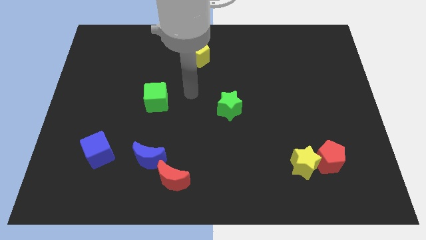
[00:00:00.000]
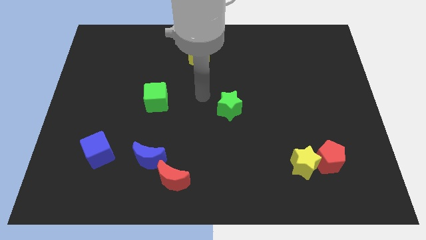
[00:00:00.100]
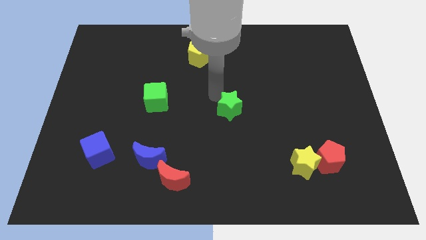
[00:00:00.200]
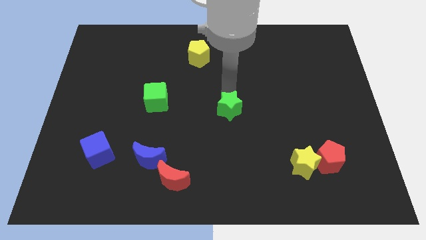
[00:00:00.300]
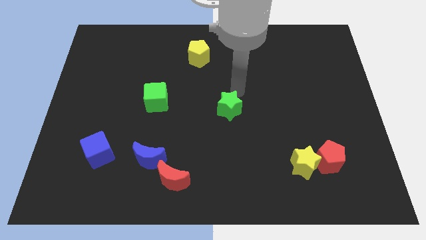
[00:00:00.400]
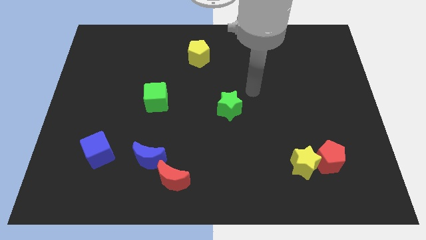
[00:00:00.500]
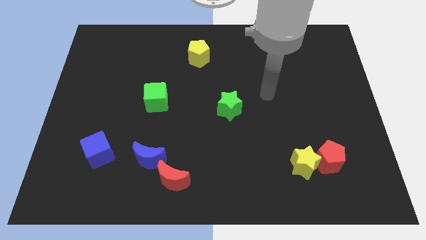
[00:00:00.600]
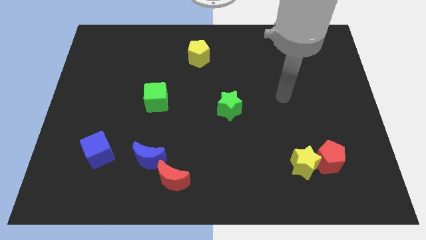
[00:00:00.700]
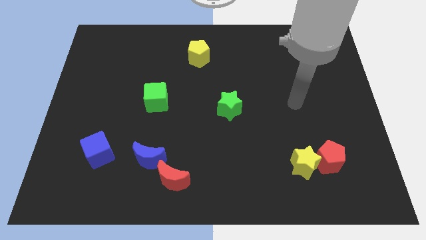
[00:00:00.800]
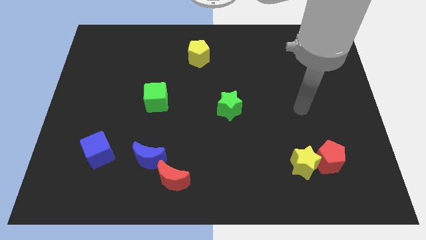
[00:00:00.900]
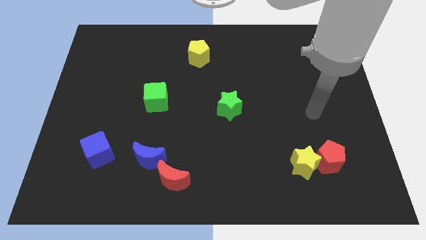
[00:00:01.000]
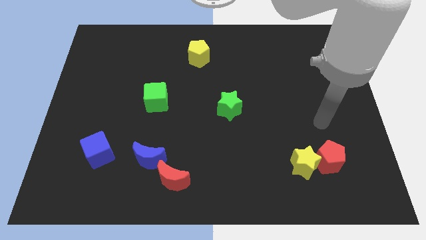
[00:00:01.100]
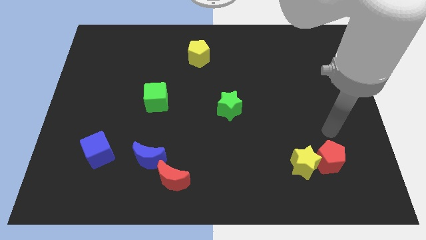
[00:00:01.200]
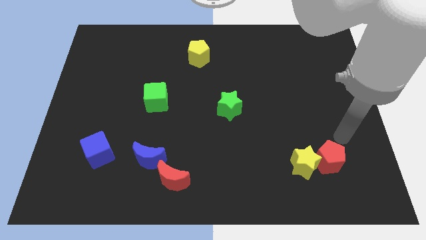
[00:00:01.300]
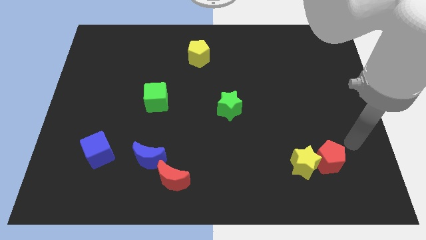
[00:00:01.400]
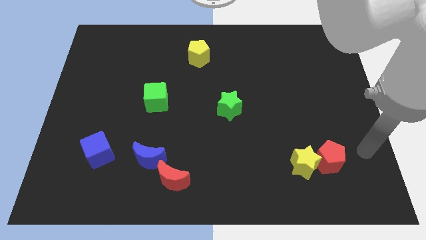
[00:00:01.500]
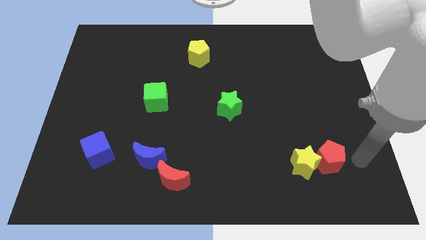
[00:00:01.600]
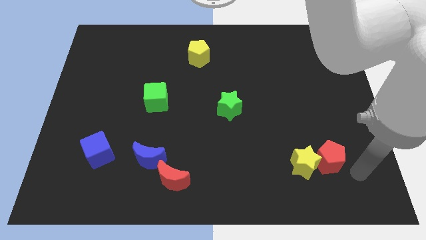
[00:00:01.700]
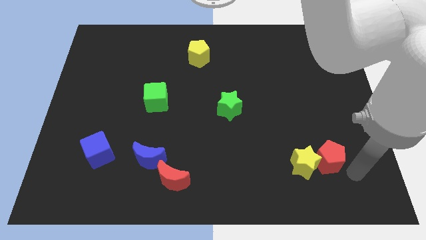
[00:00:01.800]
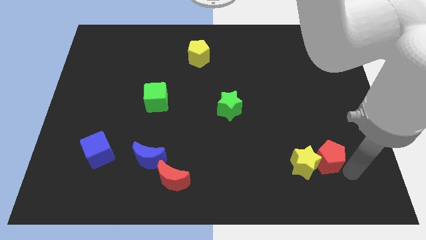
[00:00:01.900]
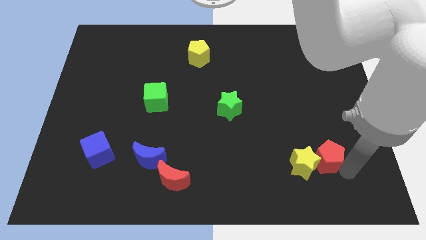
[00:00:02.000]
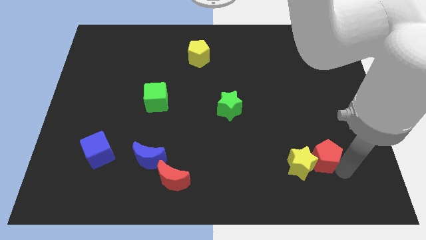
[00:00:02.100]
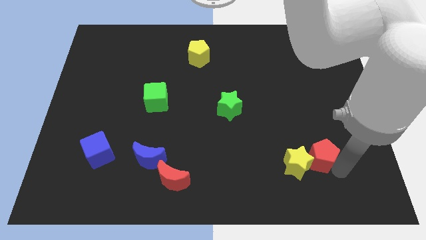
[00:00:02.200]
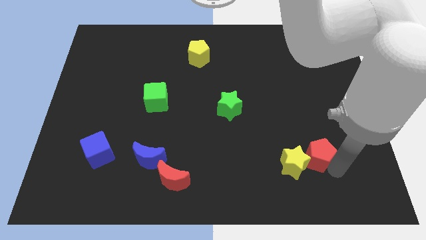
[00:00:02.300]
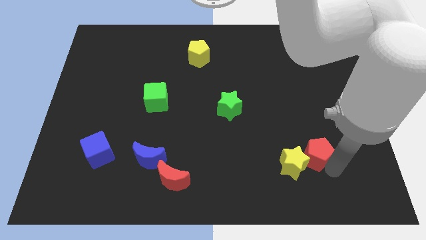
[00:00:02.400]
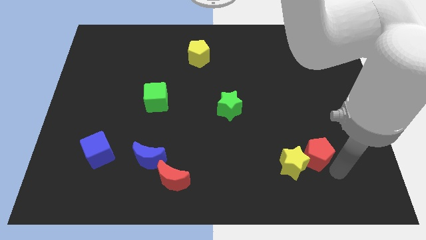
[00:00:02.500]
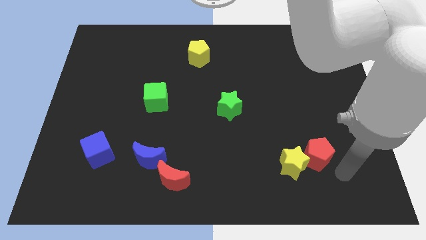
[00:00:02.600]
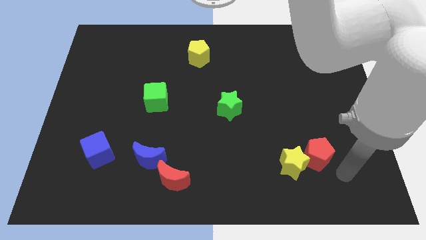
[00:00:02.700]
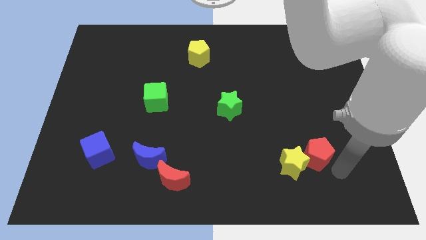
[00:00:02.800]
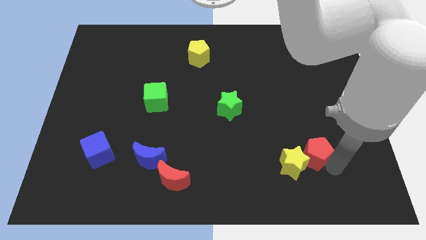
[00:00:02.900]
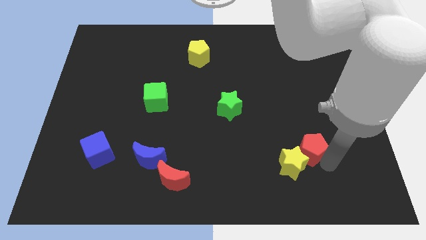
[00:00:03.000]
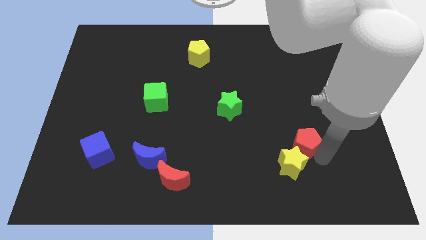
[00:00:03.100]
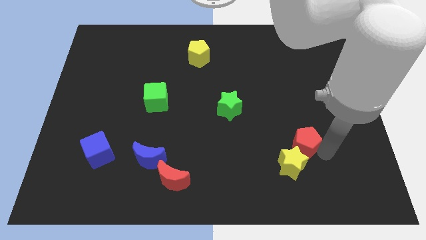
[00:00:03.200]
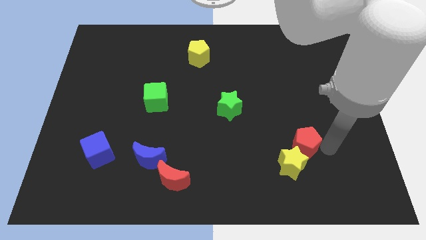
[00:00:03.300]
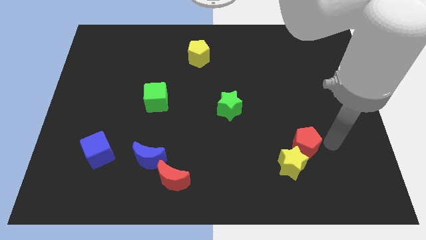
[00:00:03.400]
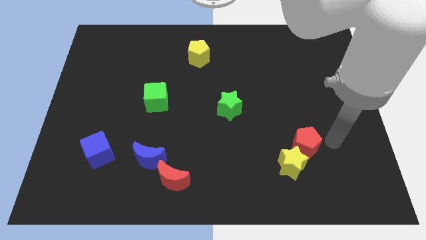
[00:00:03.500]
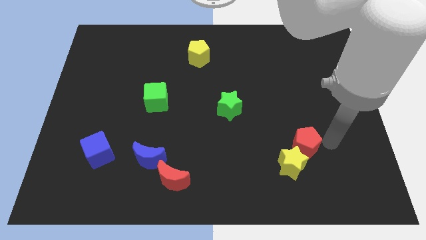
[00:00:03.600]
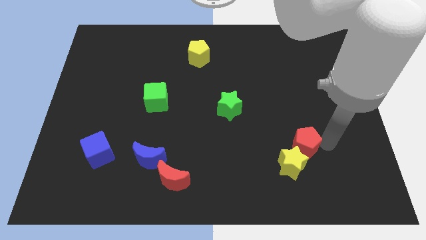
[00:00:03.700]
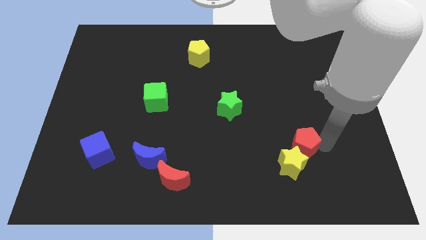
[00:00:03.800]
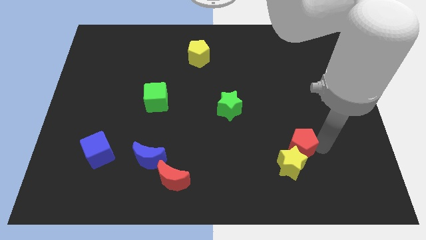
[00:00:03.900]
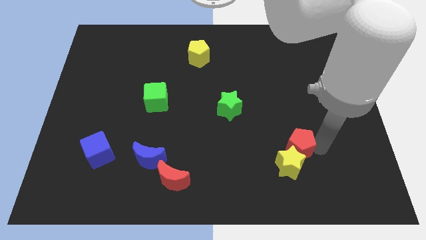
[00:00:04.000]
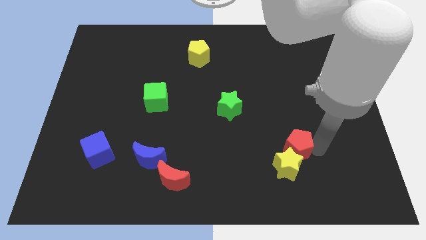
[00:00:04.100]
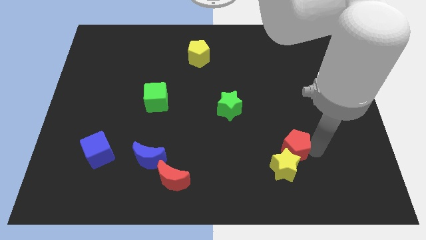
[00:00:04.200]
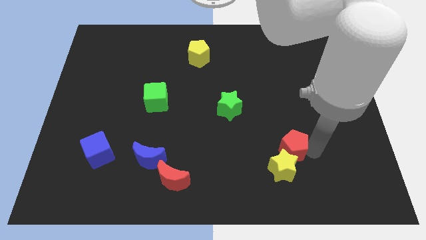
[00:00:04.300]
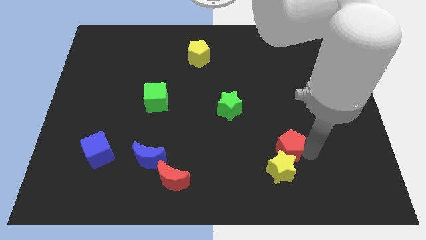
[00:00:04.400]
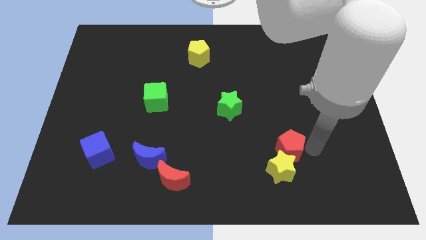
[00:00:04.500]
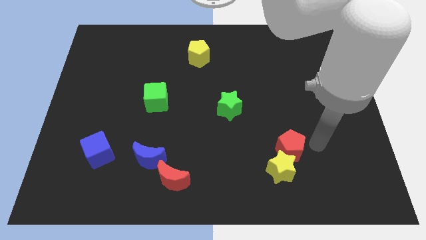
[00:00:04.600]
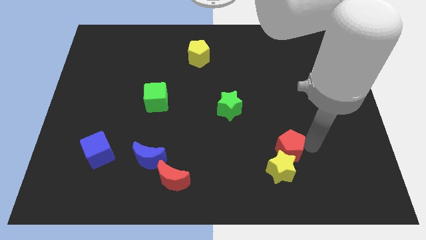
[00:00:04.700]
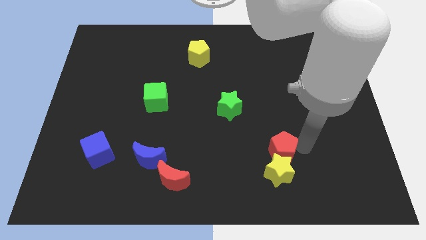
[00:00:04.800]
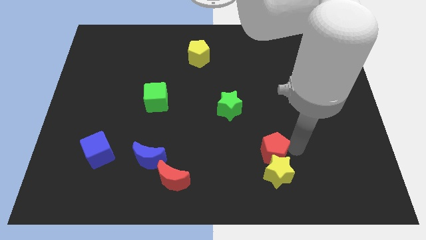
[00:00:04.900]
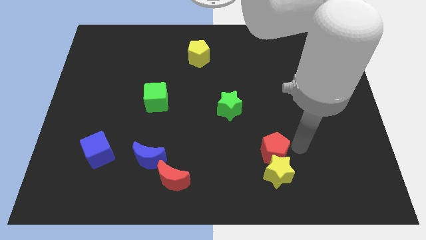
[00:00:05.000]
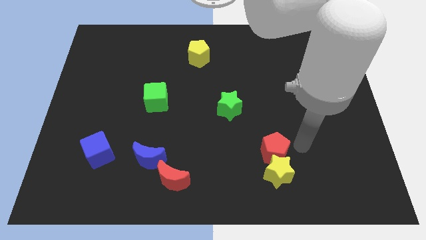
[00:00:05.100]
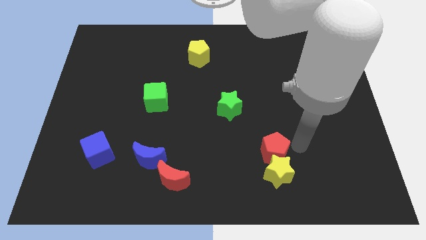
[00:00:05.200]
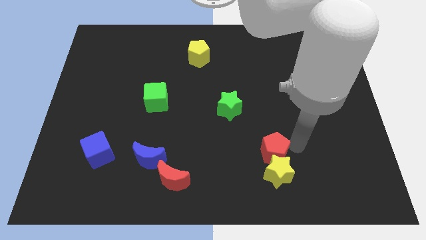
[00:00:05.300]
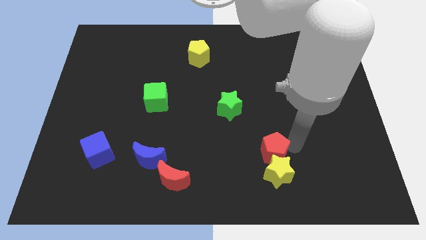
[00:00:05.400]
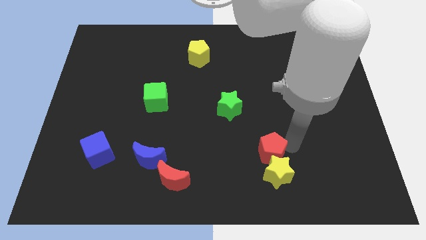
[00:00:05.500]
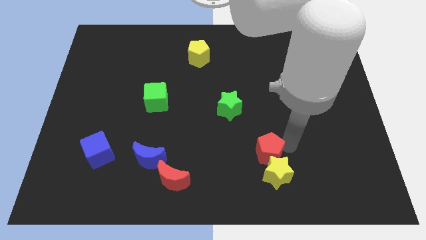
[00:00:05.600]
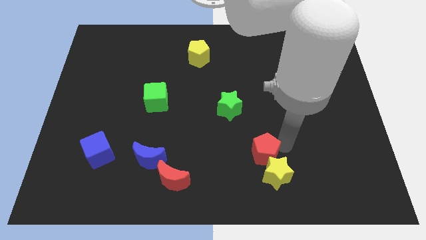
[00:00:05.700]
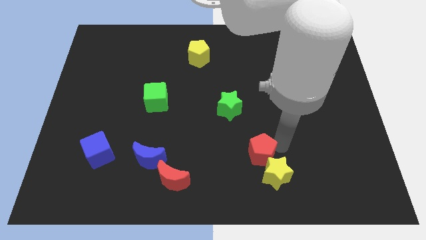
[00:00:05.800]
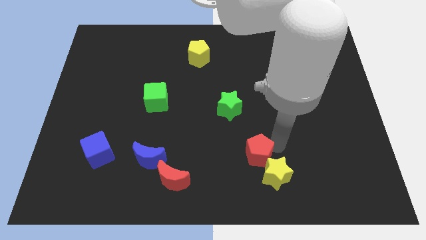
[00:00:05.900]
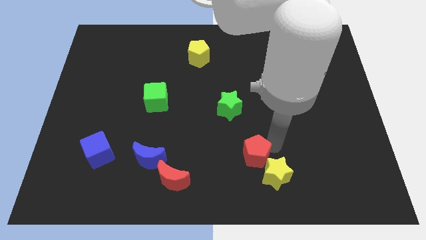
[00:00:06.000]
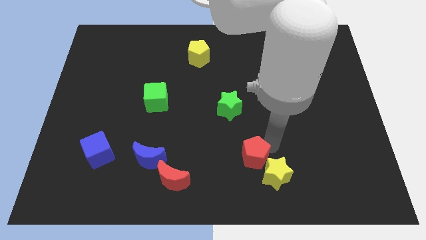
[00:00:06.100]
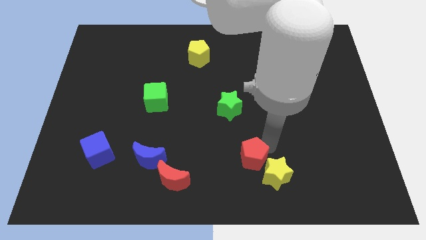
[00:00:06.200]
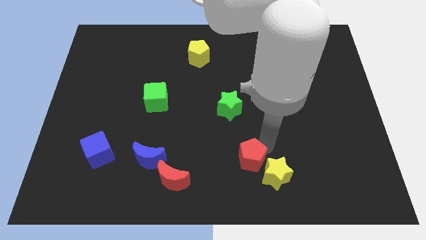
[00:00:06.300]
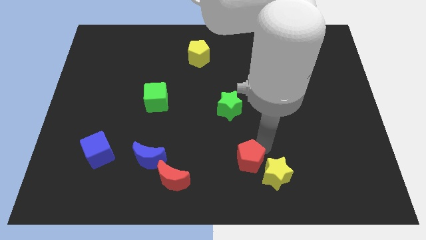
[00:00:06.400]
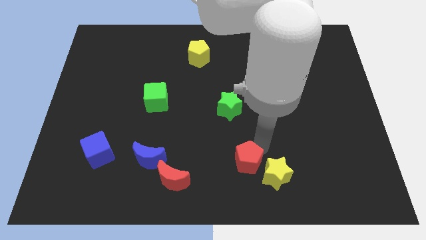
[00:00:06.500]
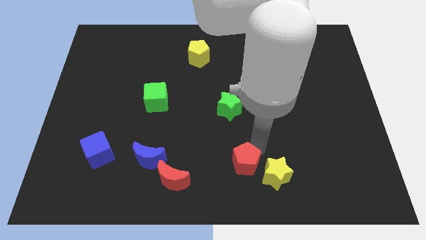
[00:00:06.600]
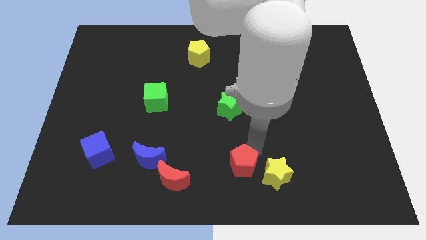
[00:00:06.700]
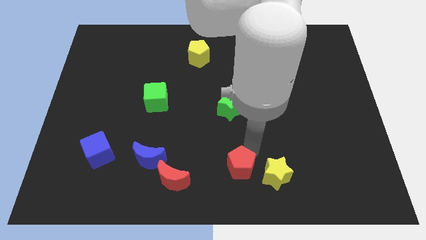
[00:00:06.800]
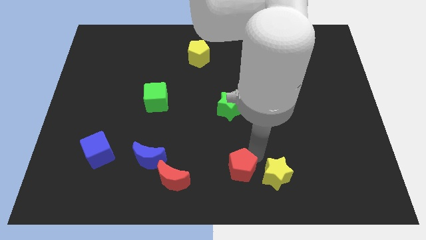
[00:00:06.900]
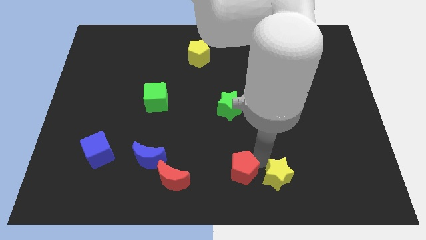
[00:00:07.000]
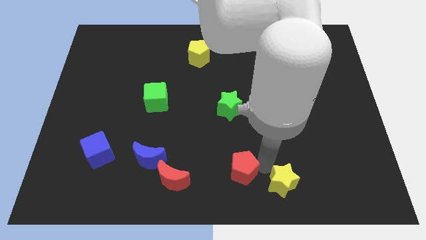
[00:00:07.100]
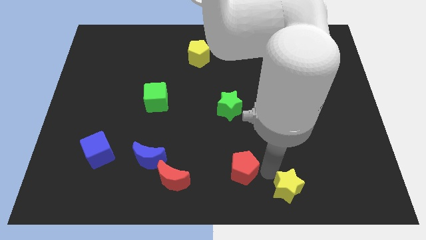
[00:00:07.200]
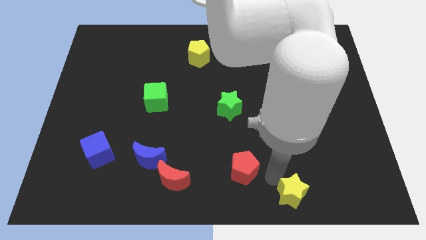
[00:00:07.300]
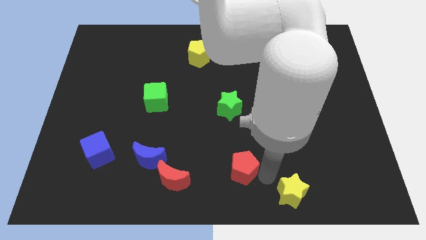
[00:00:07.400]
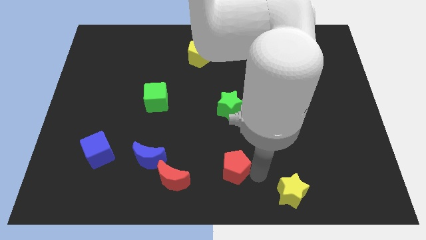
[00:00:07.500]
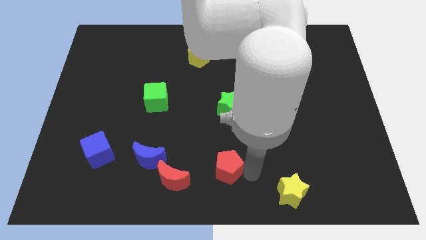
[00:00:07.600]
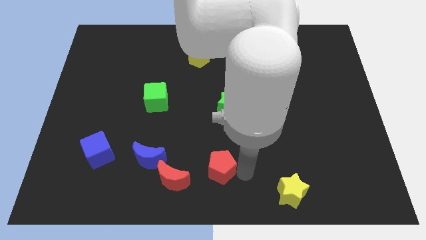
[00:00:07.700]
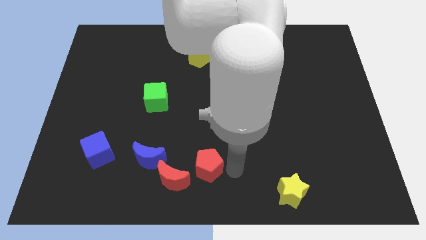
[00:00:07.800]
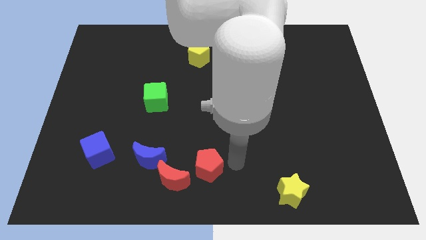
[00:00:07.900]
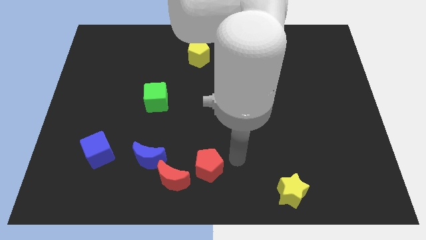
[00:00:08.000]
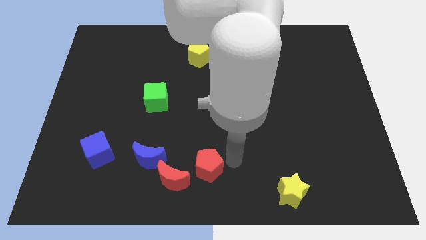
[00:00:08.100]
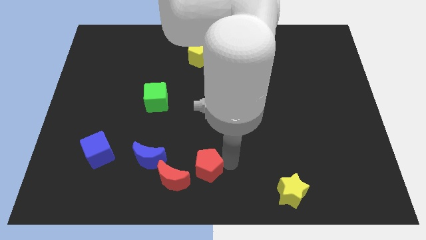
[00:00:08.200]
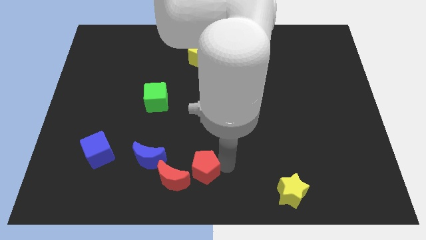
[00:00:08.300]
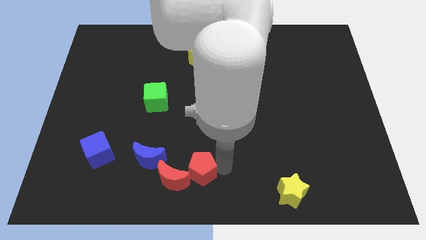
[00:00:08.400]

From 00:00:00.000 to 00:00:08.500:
move the red pentagon close to the red moon
